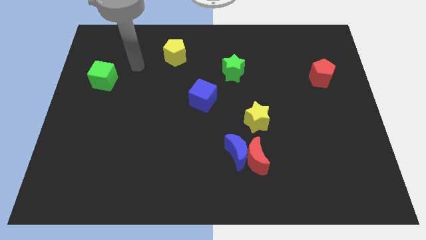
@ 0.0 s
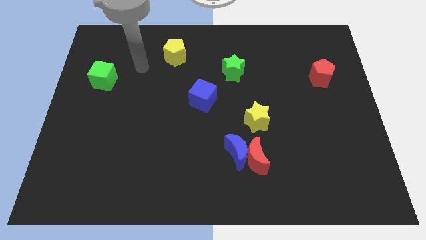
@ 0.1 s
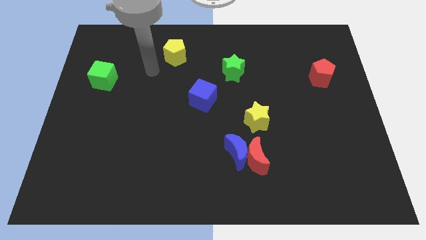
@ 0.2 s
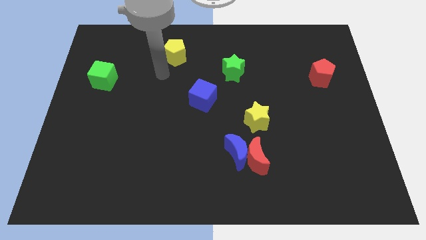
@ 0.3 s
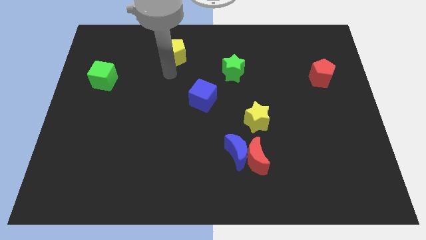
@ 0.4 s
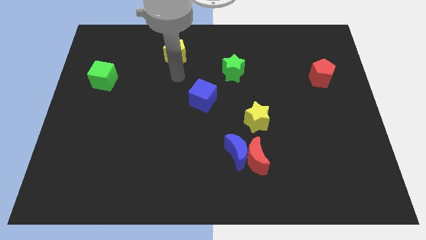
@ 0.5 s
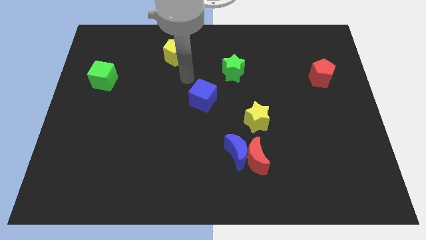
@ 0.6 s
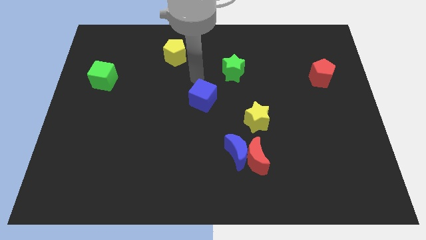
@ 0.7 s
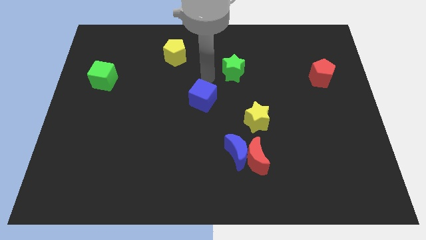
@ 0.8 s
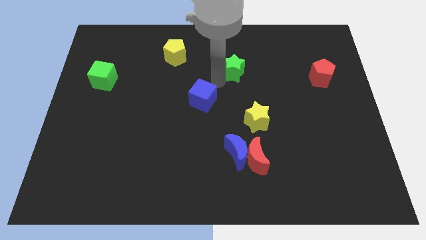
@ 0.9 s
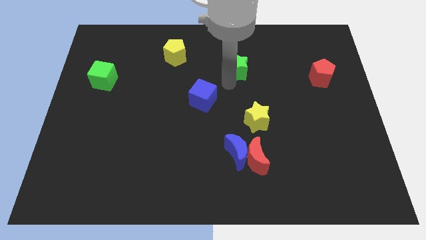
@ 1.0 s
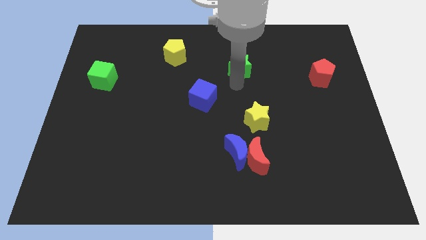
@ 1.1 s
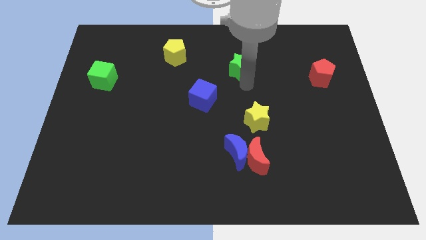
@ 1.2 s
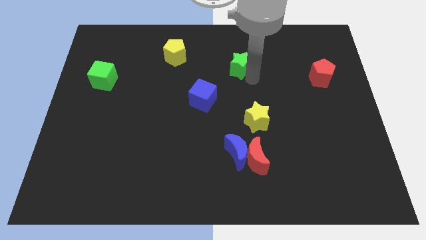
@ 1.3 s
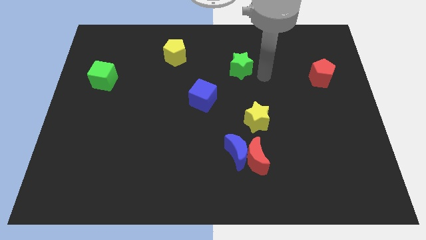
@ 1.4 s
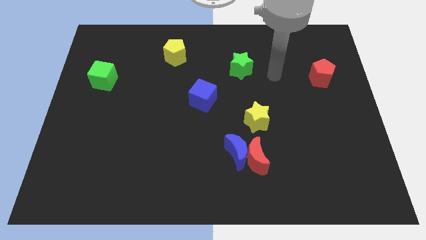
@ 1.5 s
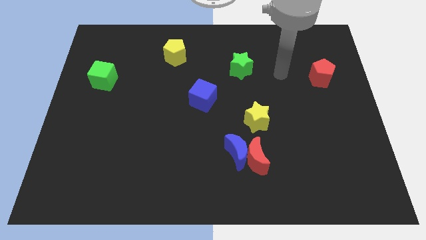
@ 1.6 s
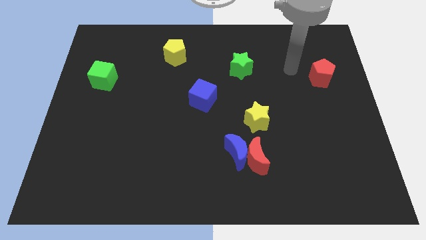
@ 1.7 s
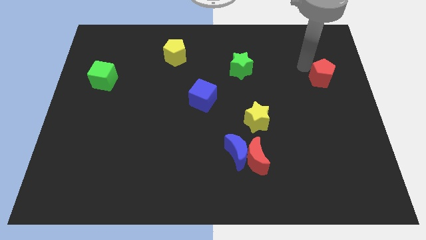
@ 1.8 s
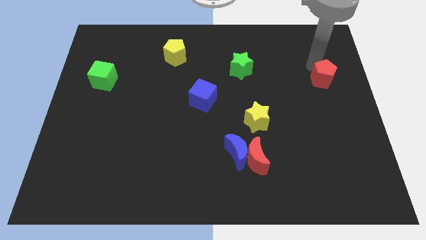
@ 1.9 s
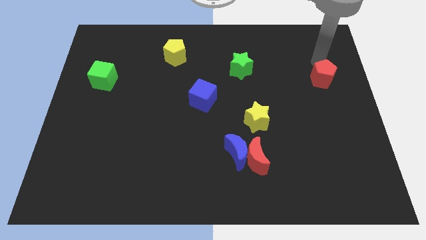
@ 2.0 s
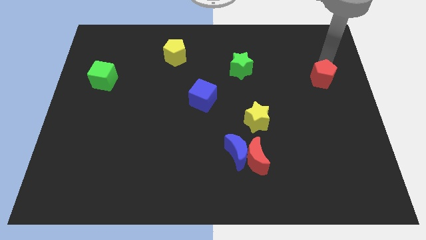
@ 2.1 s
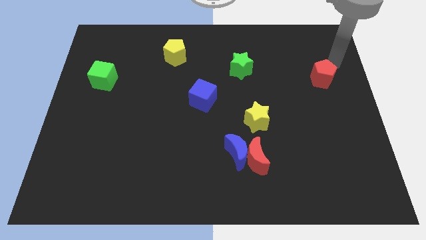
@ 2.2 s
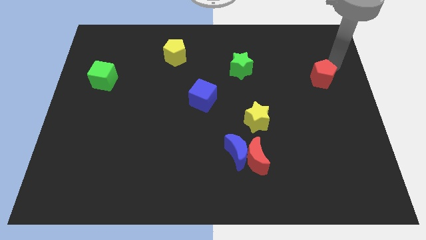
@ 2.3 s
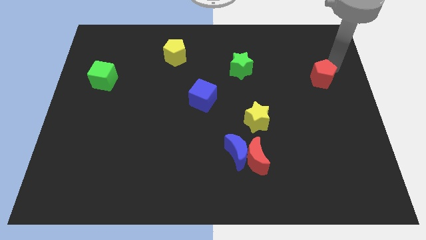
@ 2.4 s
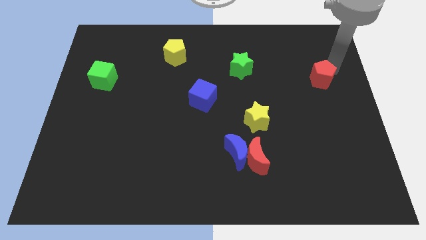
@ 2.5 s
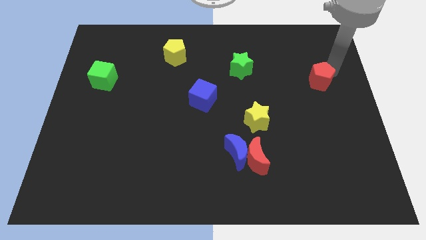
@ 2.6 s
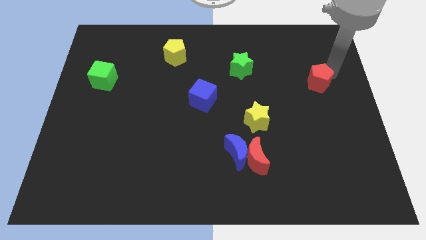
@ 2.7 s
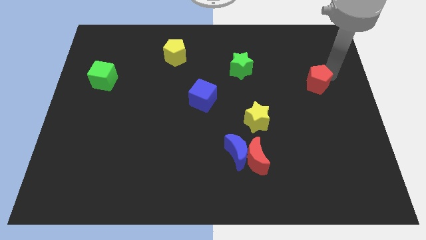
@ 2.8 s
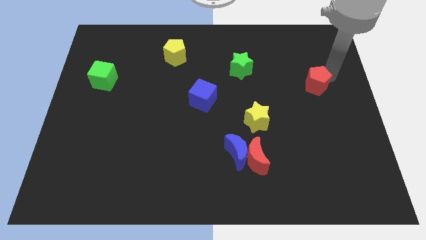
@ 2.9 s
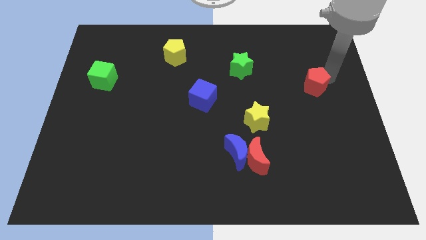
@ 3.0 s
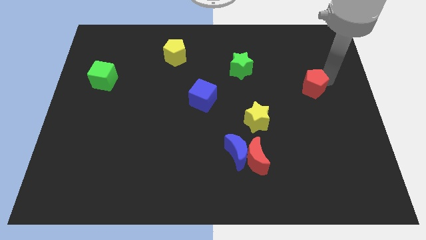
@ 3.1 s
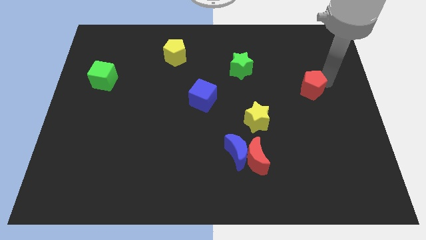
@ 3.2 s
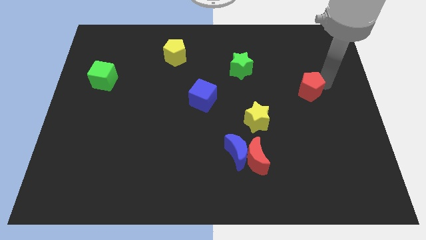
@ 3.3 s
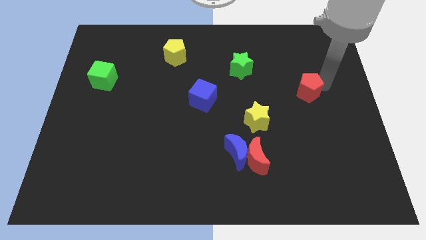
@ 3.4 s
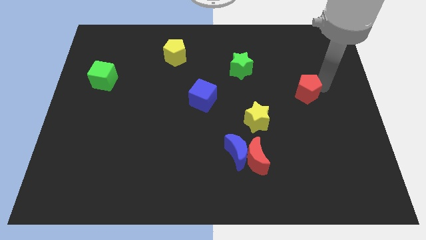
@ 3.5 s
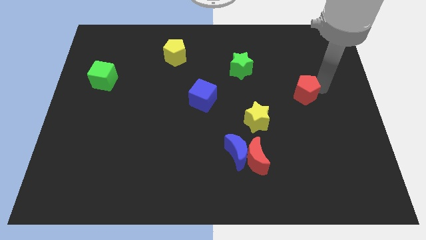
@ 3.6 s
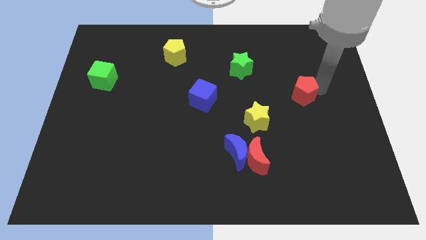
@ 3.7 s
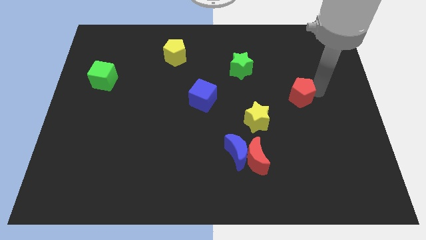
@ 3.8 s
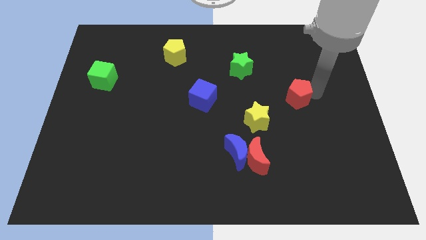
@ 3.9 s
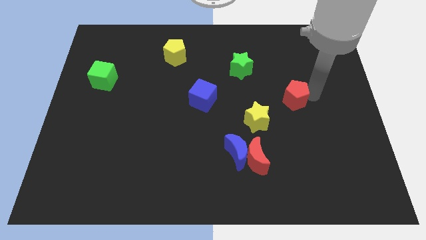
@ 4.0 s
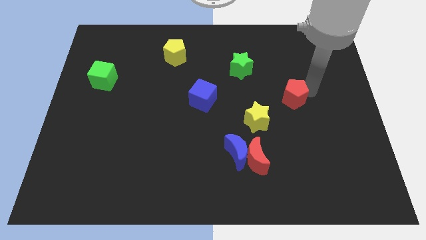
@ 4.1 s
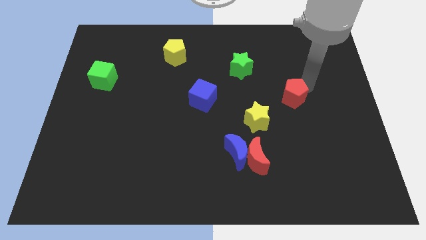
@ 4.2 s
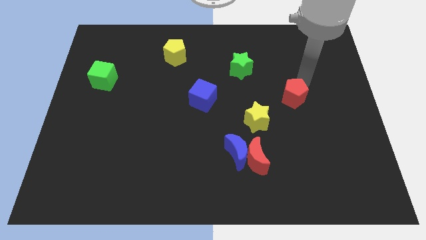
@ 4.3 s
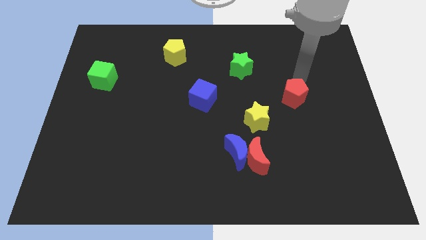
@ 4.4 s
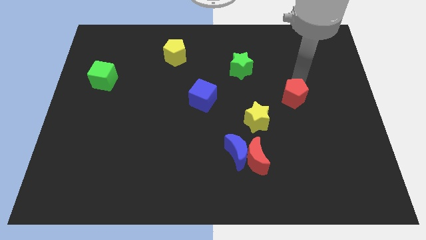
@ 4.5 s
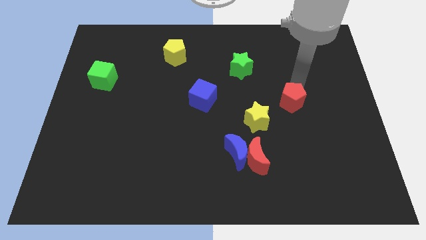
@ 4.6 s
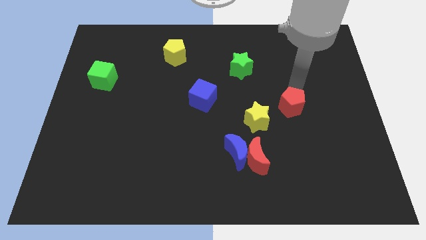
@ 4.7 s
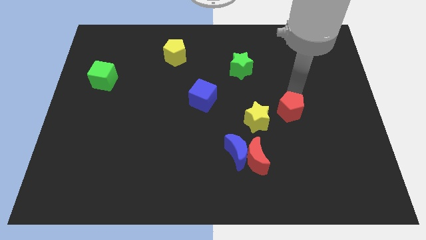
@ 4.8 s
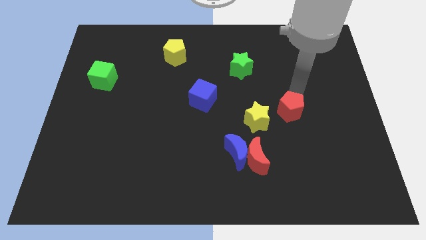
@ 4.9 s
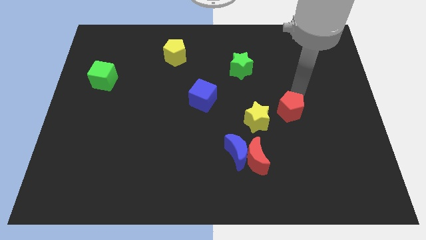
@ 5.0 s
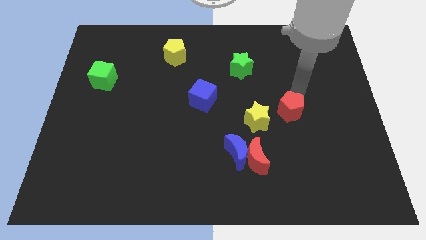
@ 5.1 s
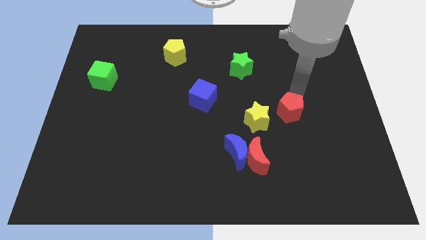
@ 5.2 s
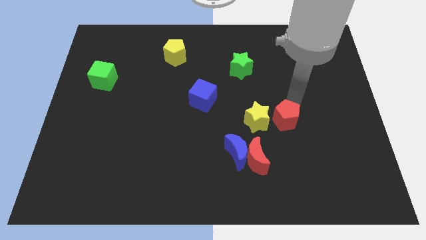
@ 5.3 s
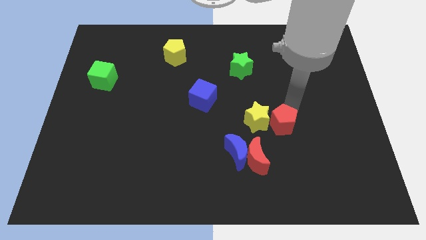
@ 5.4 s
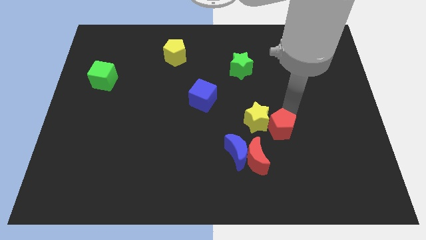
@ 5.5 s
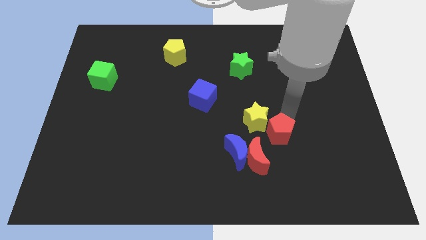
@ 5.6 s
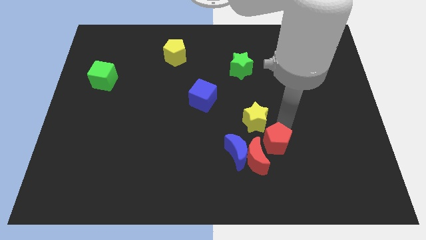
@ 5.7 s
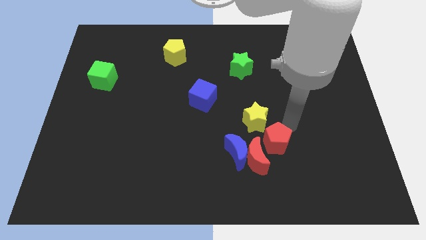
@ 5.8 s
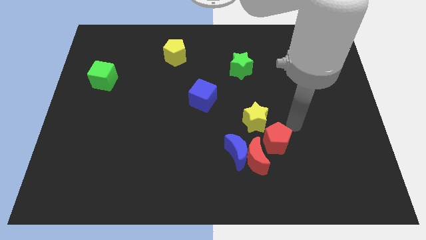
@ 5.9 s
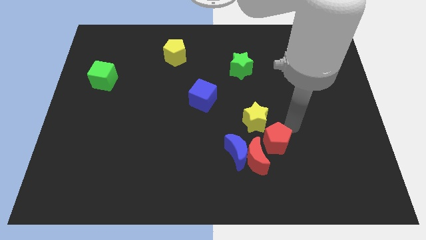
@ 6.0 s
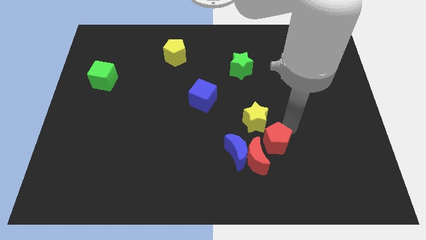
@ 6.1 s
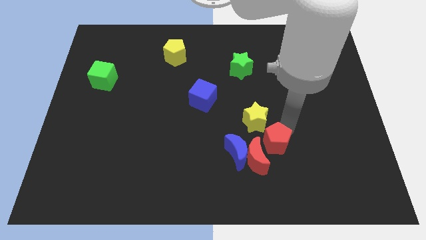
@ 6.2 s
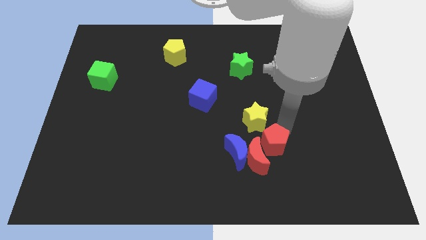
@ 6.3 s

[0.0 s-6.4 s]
push the red pentagon close to the red moon

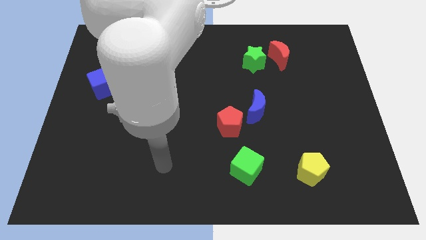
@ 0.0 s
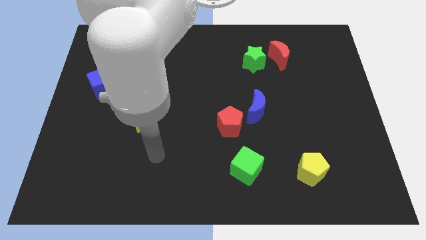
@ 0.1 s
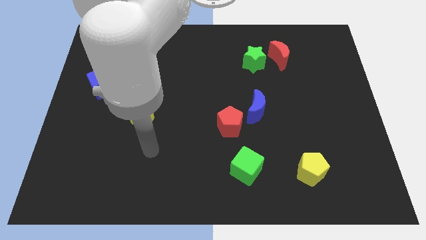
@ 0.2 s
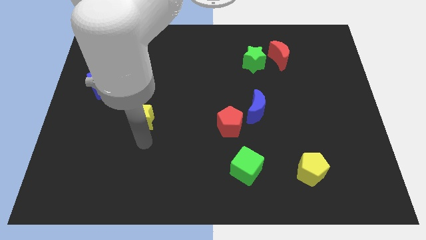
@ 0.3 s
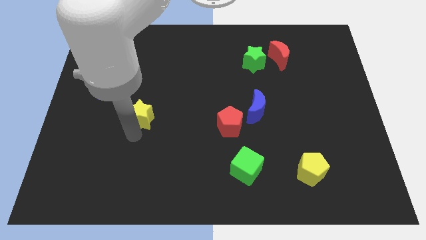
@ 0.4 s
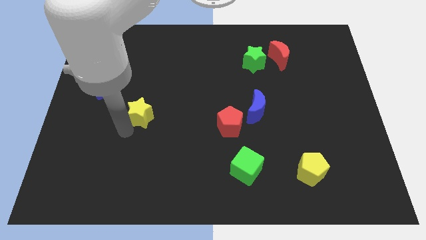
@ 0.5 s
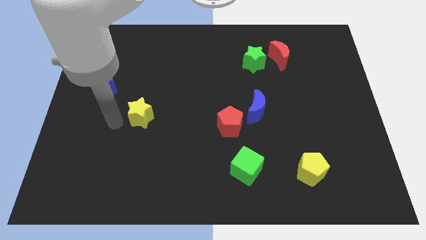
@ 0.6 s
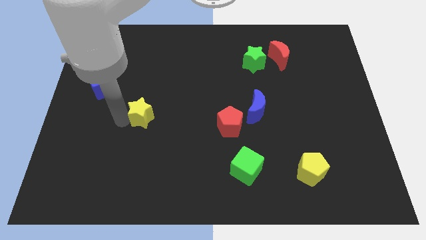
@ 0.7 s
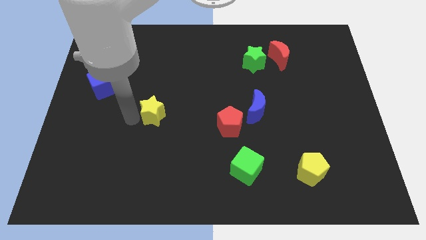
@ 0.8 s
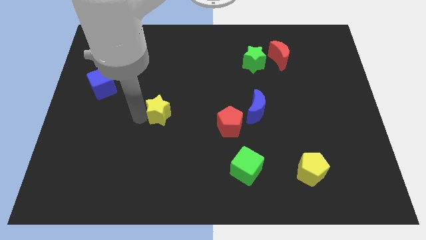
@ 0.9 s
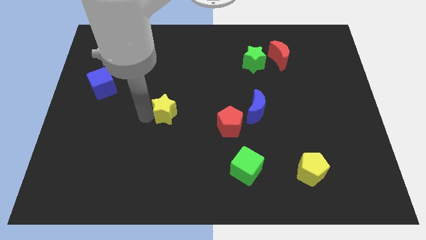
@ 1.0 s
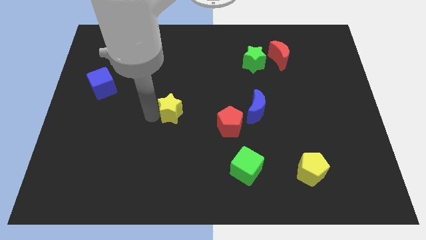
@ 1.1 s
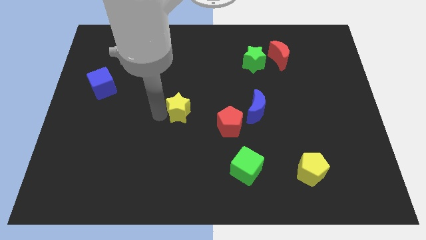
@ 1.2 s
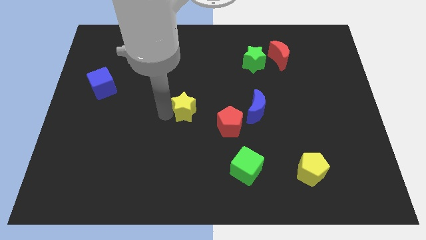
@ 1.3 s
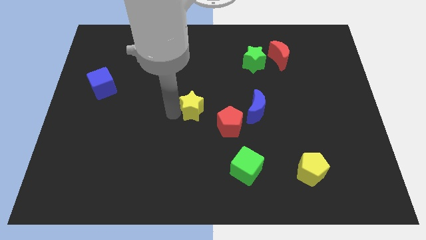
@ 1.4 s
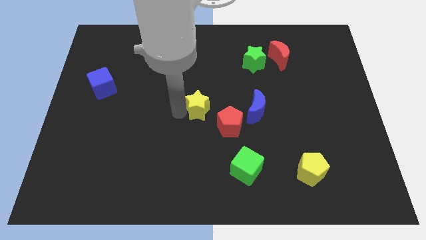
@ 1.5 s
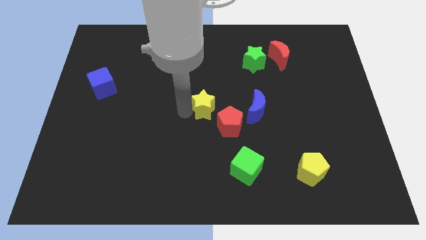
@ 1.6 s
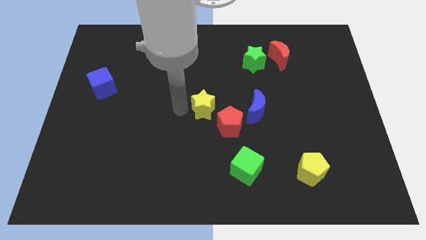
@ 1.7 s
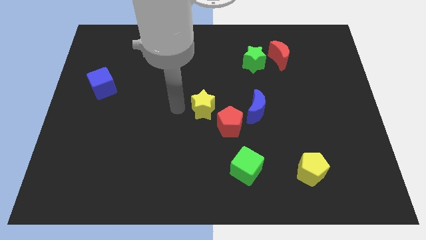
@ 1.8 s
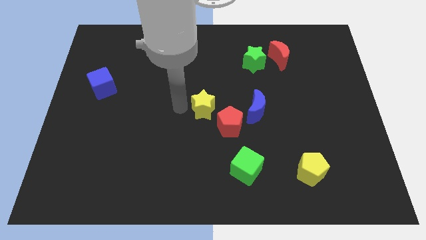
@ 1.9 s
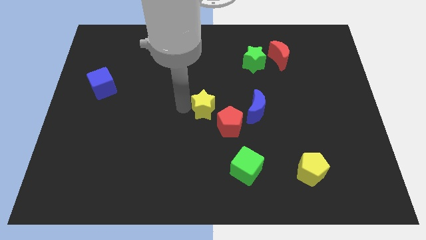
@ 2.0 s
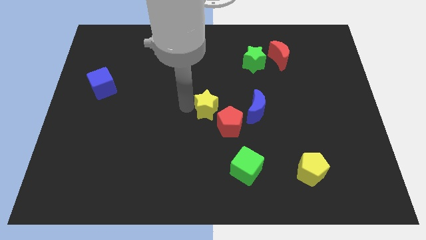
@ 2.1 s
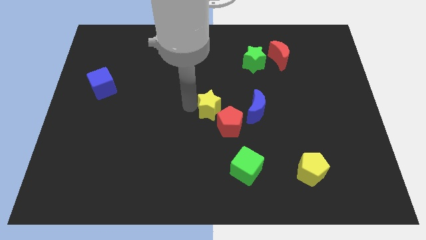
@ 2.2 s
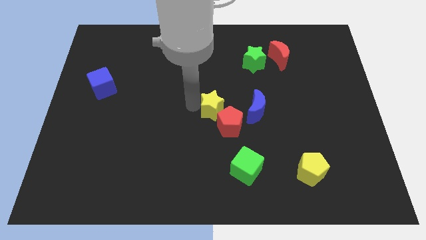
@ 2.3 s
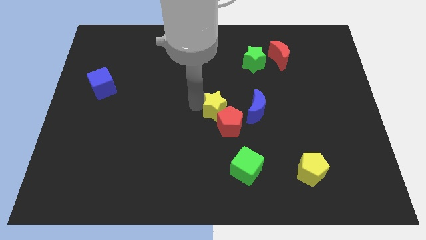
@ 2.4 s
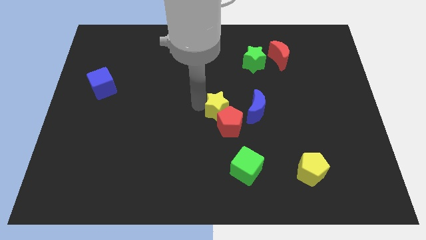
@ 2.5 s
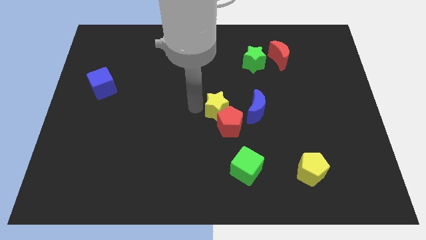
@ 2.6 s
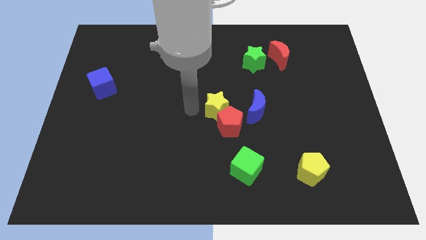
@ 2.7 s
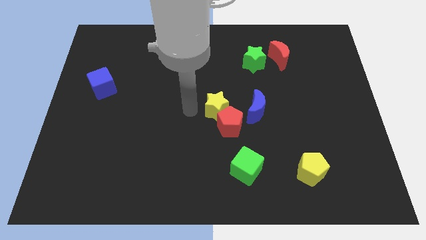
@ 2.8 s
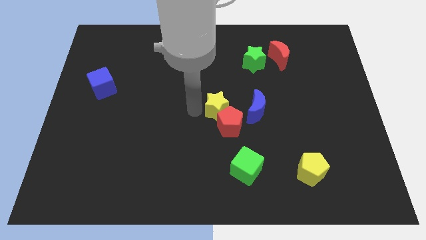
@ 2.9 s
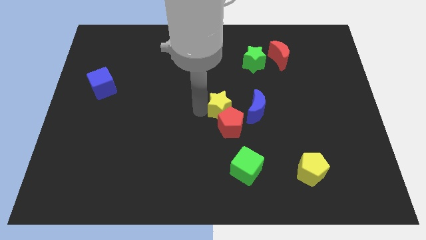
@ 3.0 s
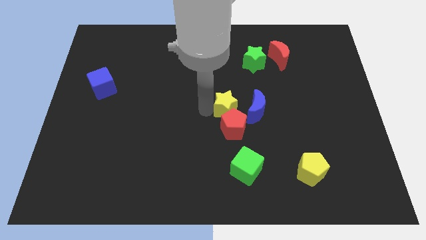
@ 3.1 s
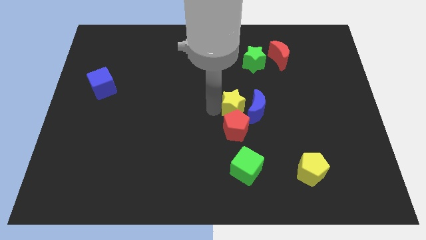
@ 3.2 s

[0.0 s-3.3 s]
push the yellow star next to the blue moon
